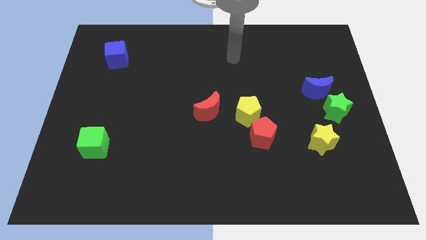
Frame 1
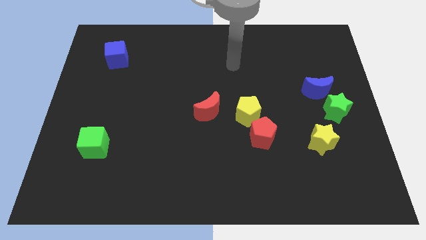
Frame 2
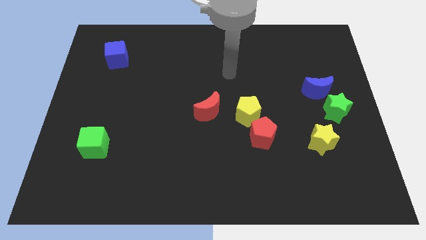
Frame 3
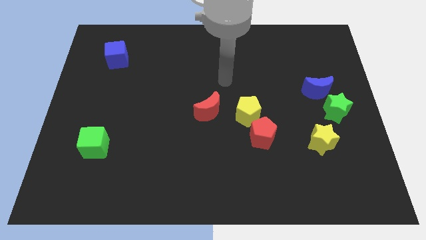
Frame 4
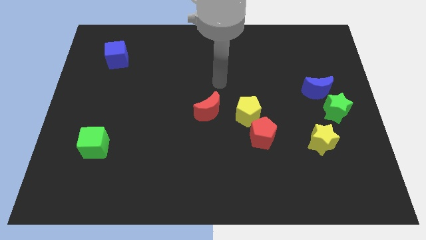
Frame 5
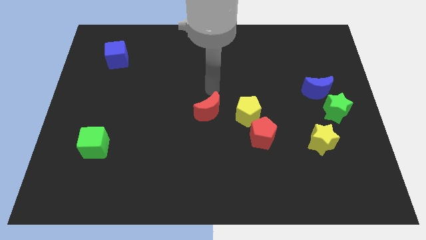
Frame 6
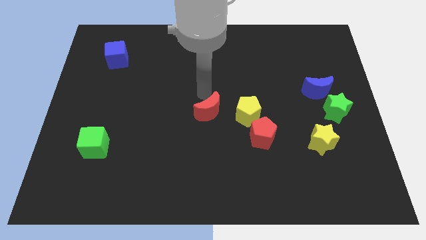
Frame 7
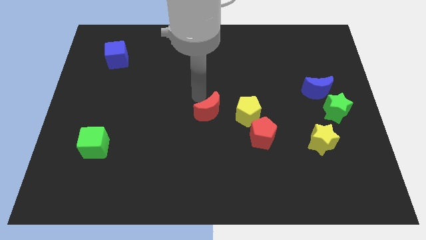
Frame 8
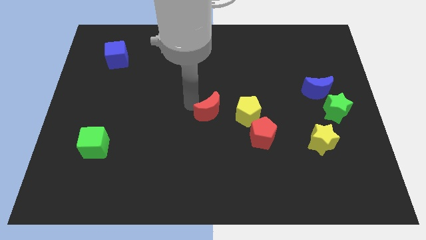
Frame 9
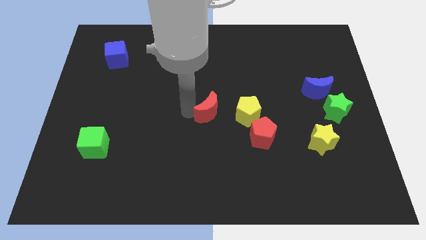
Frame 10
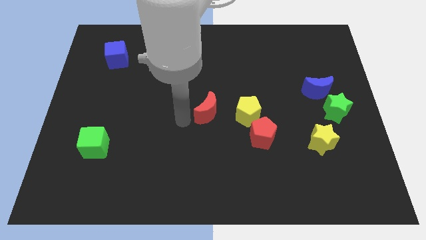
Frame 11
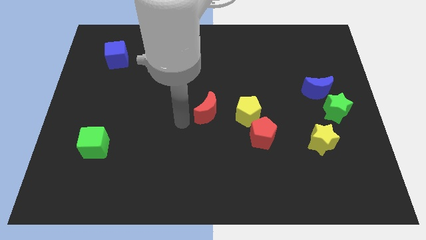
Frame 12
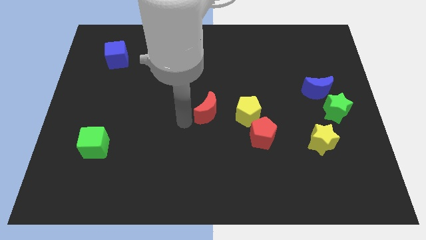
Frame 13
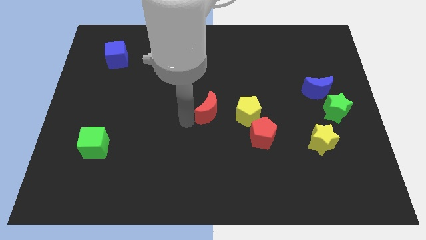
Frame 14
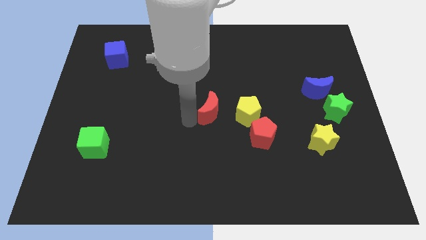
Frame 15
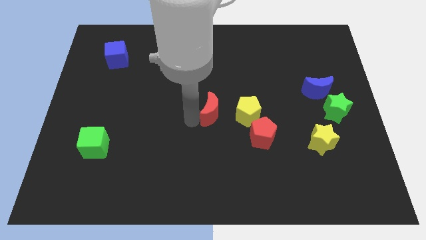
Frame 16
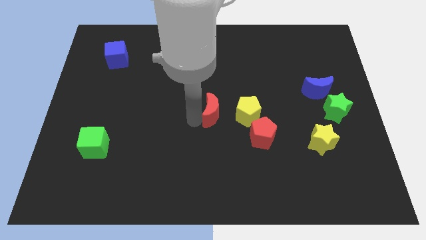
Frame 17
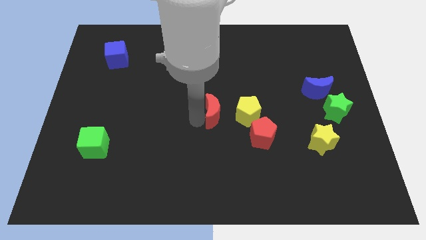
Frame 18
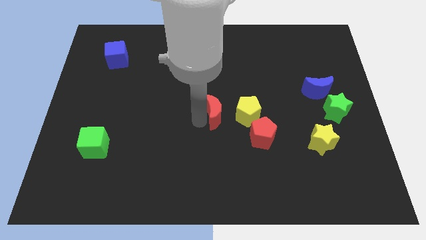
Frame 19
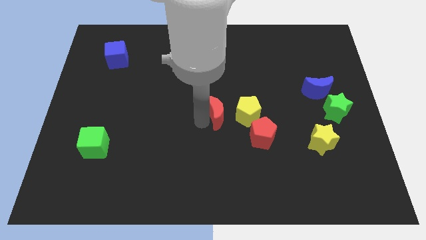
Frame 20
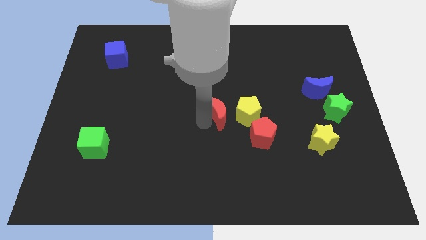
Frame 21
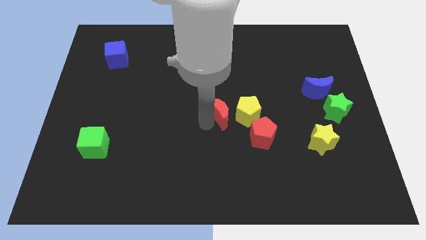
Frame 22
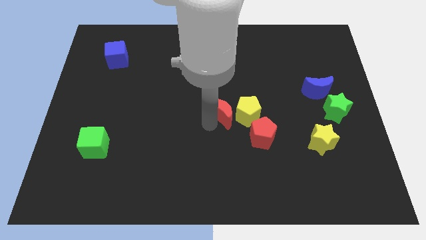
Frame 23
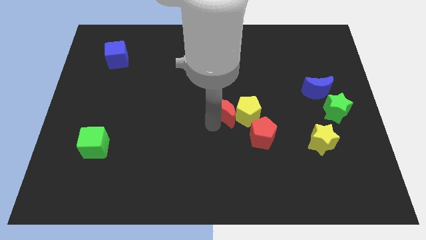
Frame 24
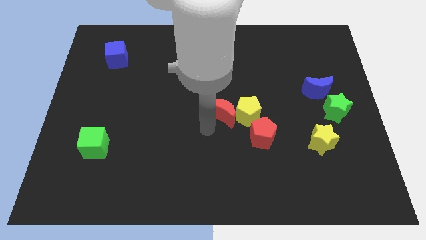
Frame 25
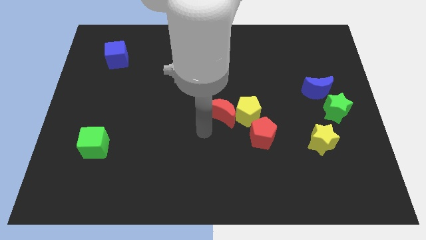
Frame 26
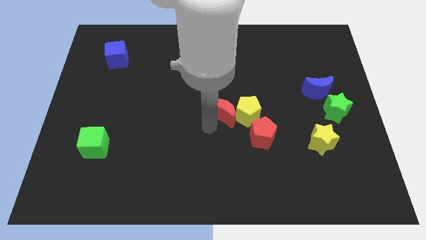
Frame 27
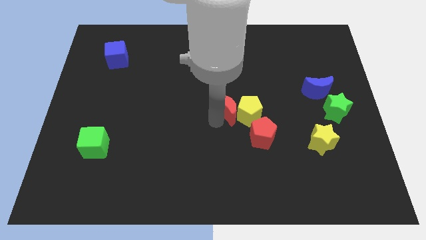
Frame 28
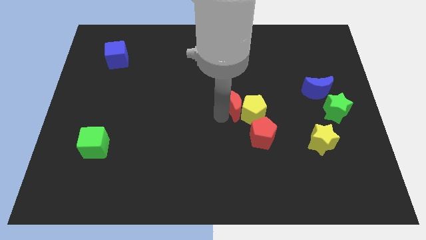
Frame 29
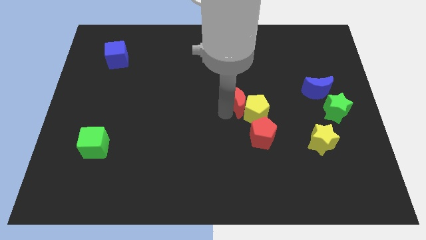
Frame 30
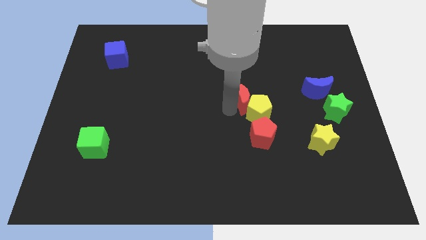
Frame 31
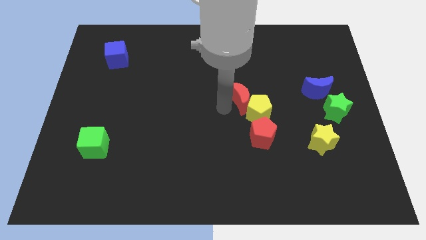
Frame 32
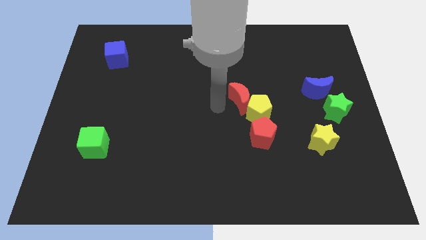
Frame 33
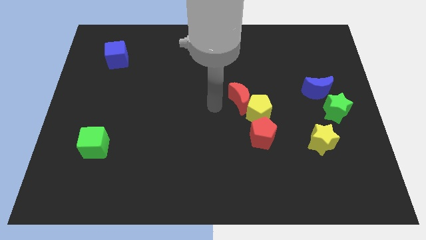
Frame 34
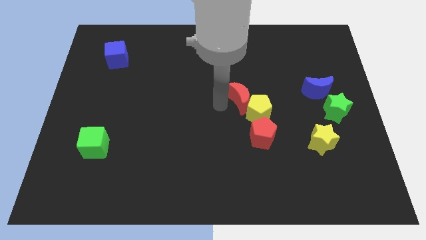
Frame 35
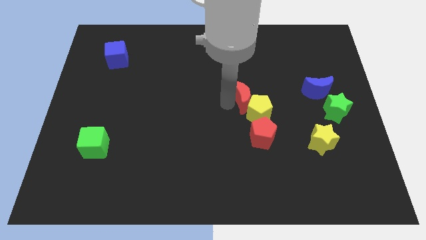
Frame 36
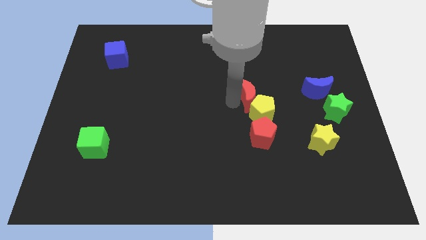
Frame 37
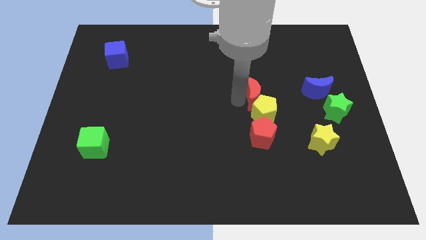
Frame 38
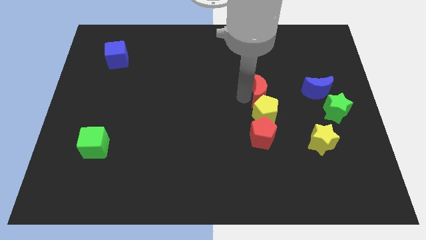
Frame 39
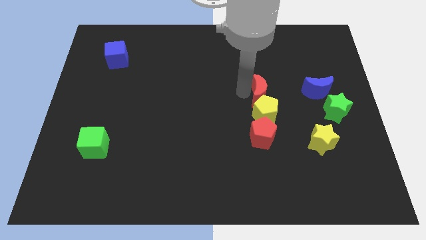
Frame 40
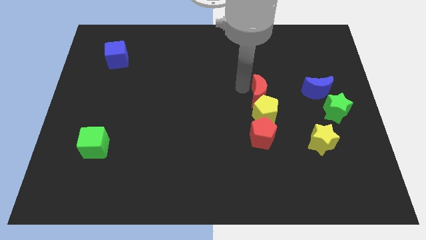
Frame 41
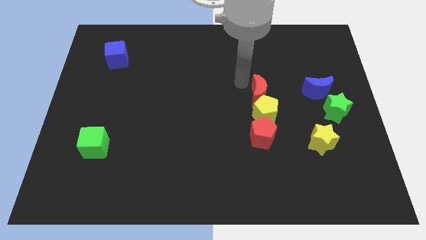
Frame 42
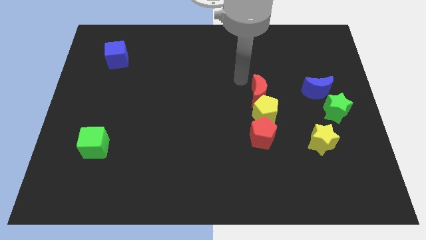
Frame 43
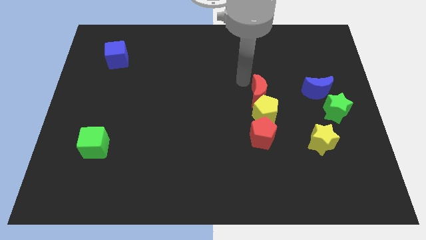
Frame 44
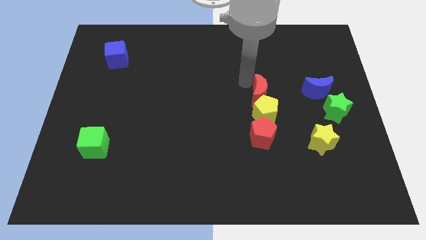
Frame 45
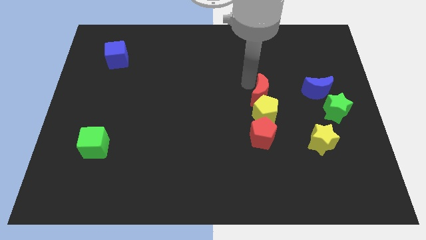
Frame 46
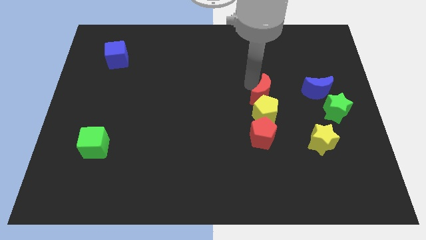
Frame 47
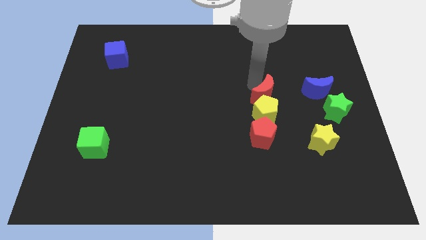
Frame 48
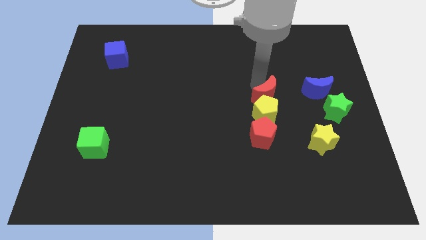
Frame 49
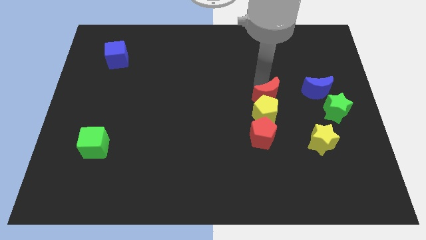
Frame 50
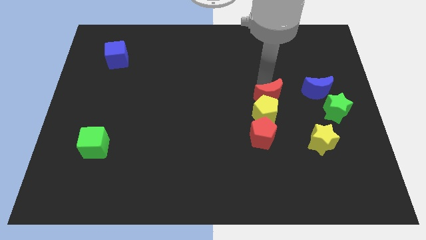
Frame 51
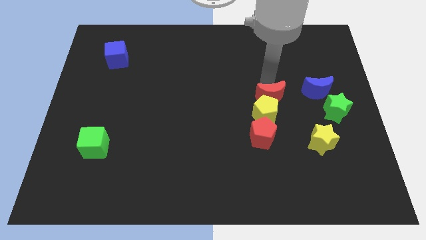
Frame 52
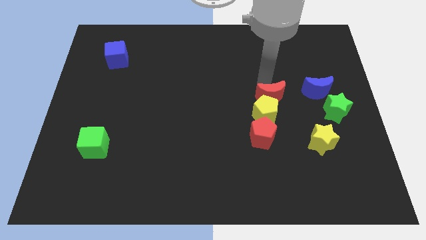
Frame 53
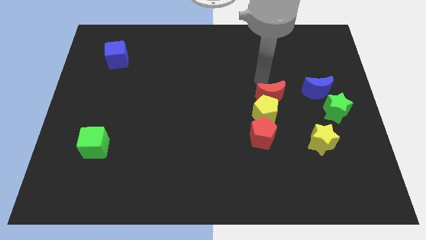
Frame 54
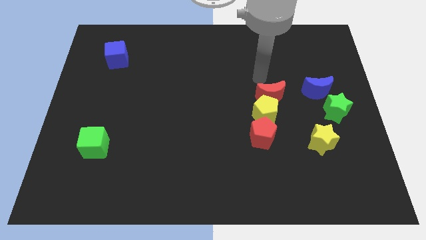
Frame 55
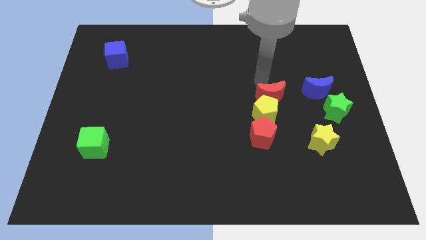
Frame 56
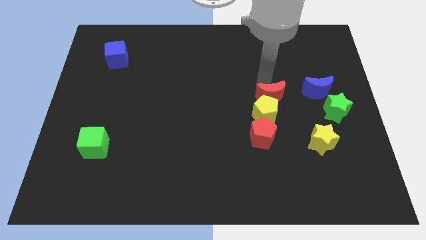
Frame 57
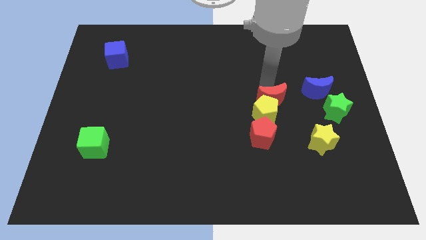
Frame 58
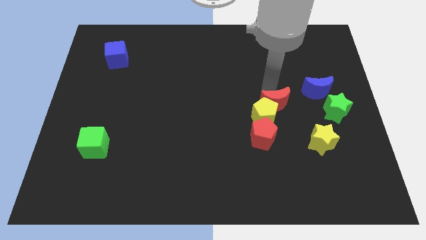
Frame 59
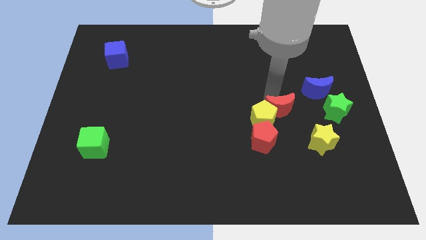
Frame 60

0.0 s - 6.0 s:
put the red moon to the top left of the yellow star

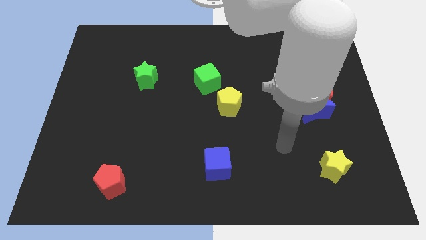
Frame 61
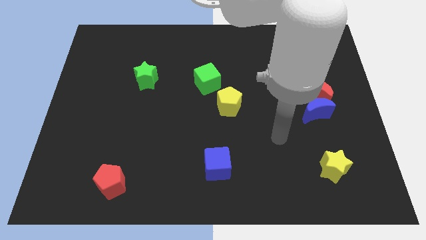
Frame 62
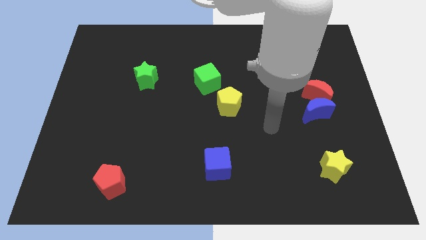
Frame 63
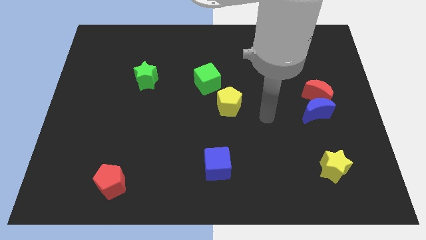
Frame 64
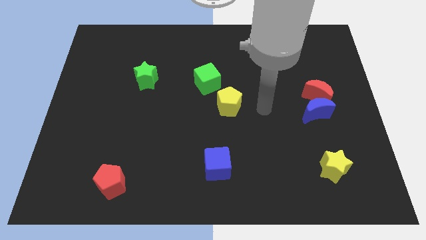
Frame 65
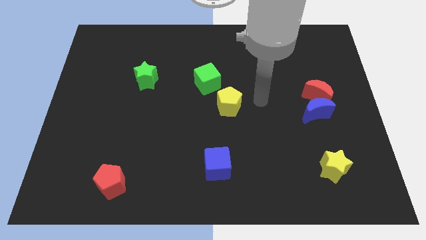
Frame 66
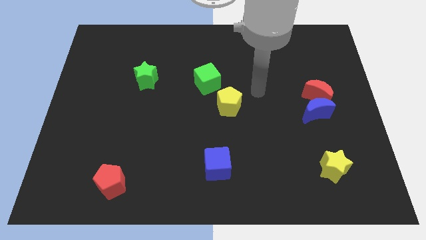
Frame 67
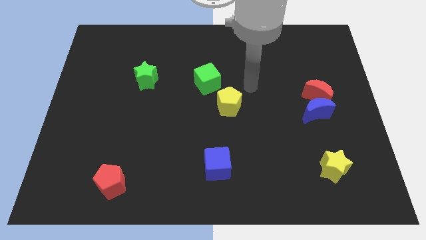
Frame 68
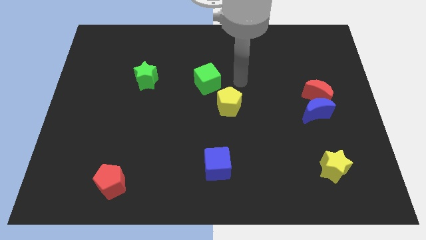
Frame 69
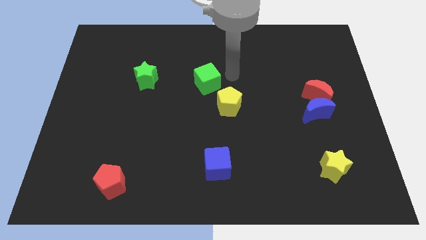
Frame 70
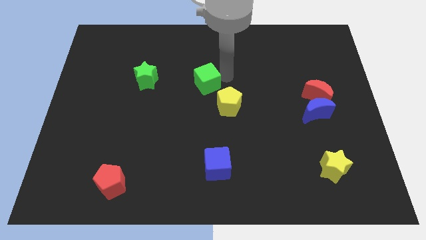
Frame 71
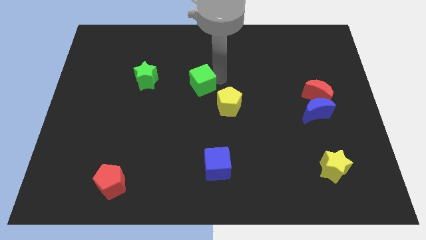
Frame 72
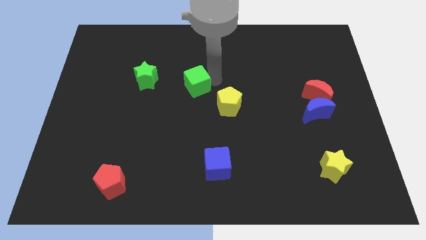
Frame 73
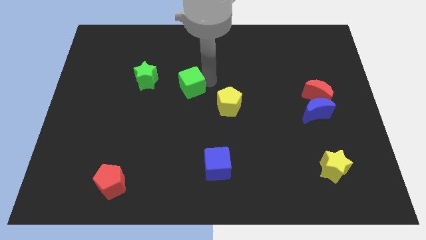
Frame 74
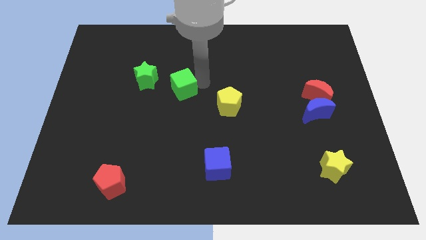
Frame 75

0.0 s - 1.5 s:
put the green cube to the bottom right of the green star
